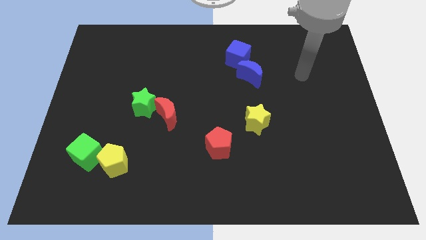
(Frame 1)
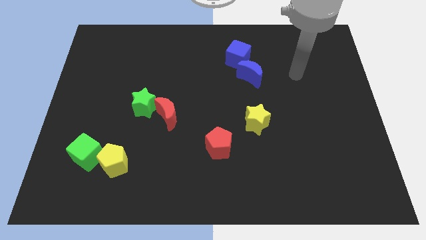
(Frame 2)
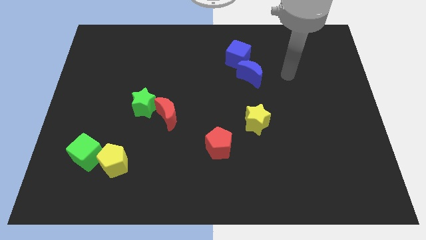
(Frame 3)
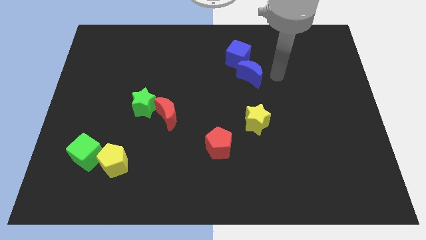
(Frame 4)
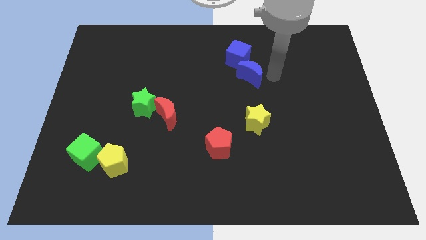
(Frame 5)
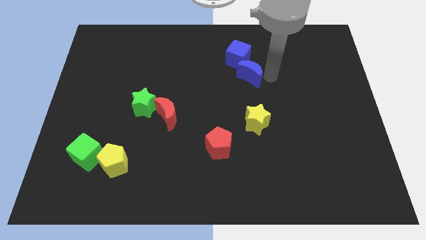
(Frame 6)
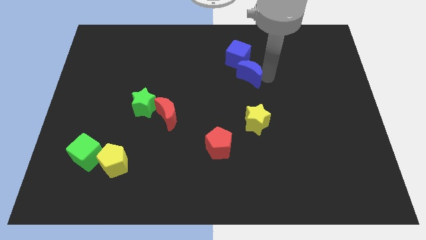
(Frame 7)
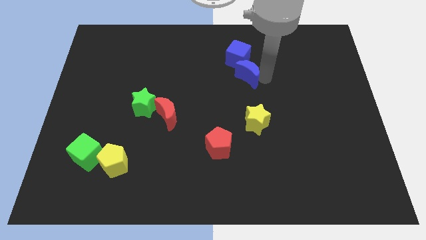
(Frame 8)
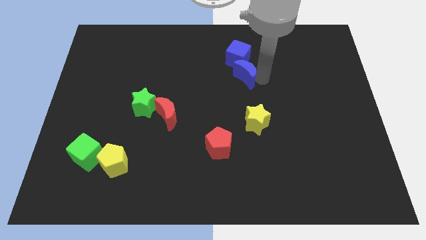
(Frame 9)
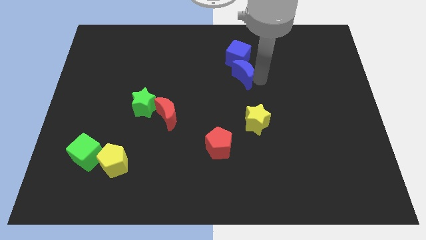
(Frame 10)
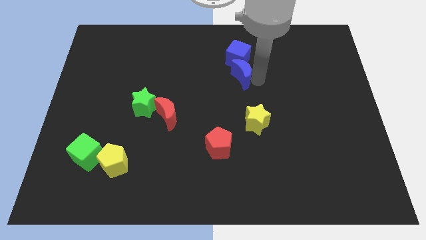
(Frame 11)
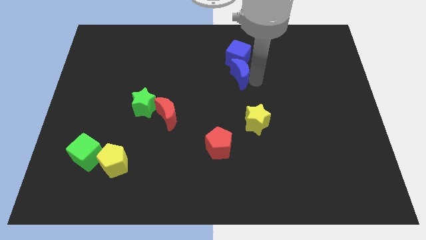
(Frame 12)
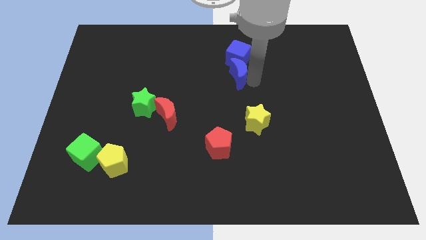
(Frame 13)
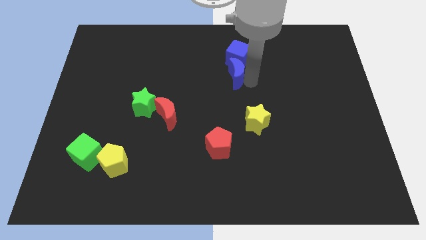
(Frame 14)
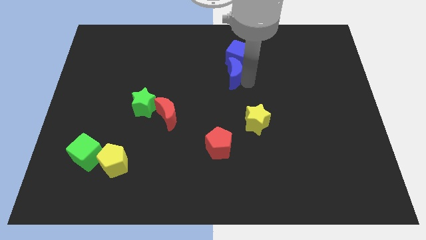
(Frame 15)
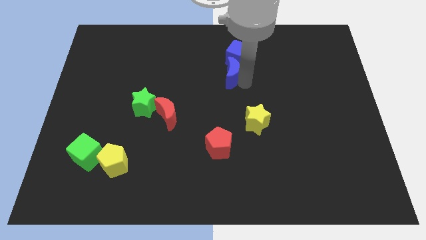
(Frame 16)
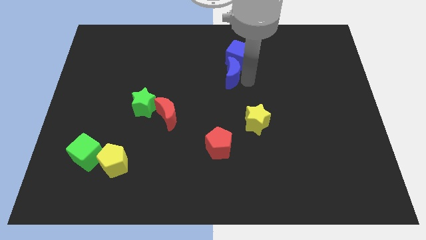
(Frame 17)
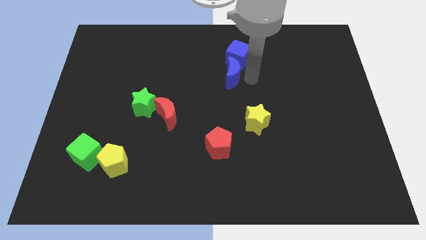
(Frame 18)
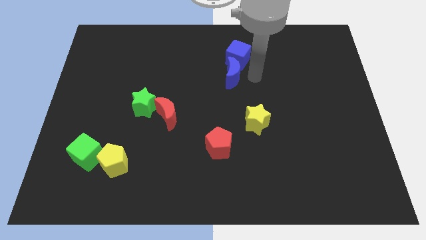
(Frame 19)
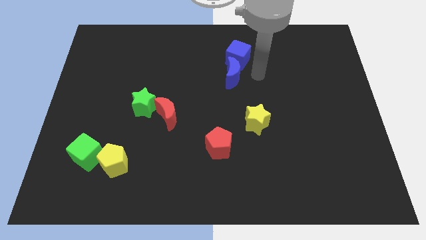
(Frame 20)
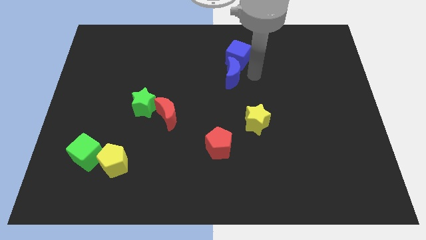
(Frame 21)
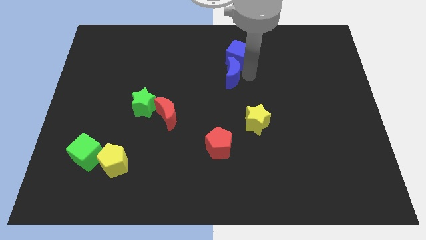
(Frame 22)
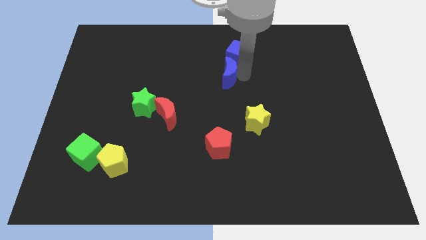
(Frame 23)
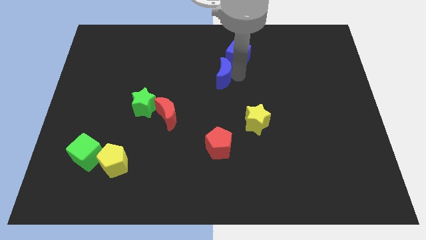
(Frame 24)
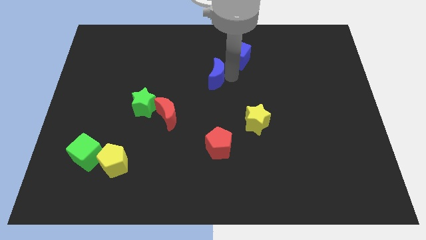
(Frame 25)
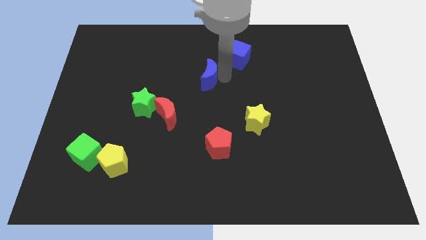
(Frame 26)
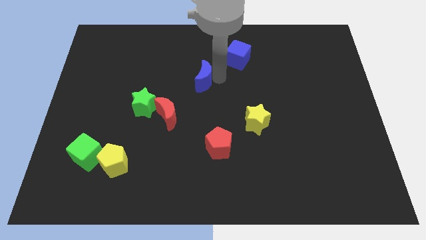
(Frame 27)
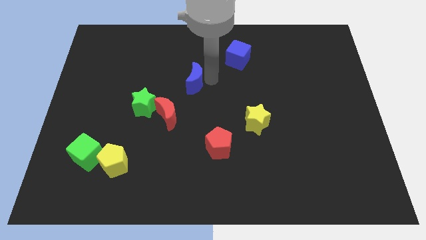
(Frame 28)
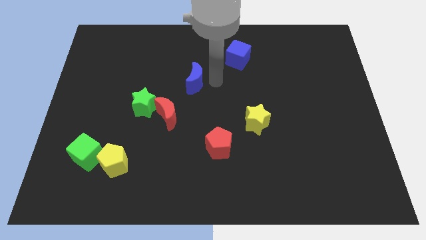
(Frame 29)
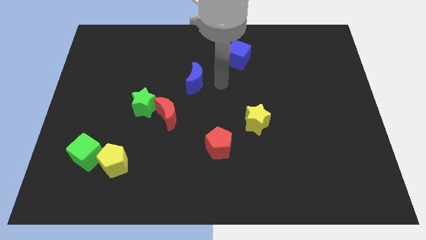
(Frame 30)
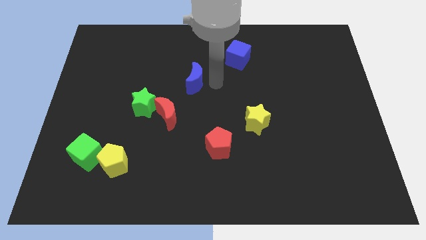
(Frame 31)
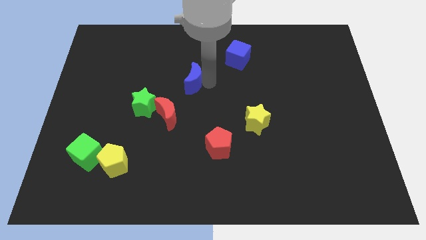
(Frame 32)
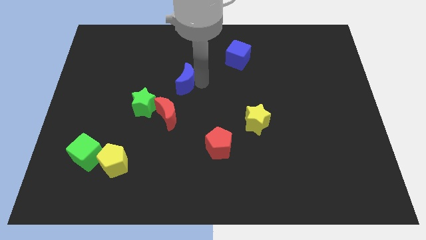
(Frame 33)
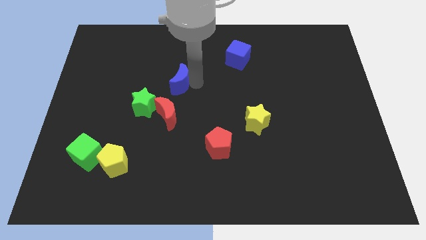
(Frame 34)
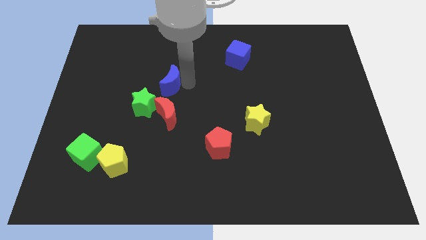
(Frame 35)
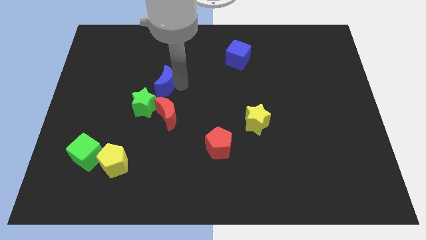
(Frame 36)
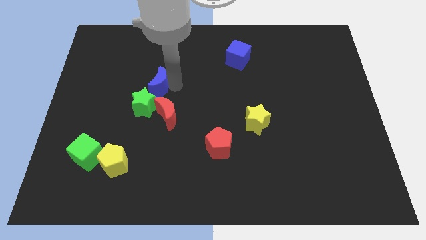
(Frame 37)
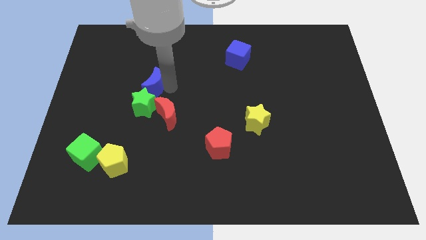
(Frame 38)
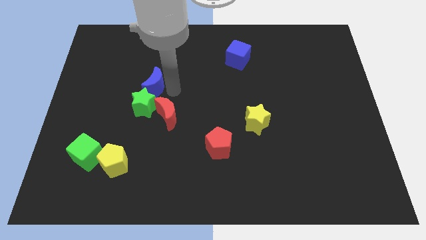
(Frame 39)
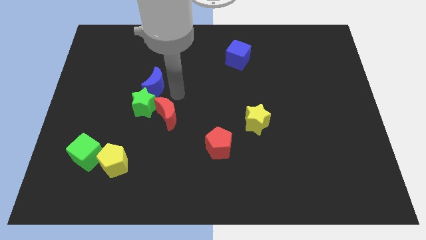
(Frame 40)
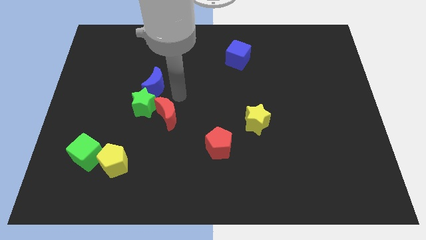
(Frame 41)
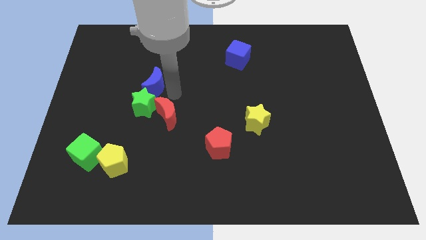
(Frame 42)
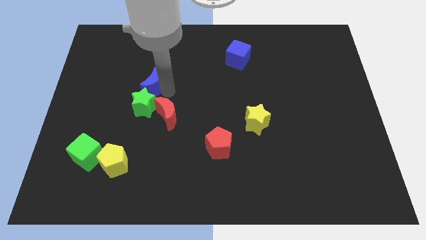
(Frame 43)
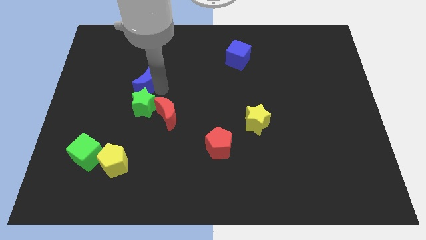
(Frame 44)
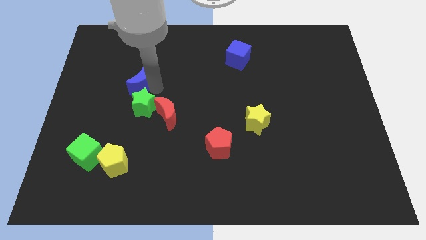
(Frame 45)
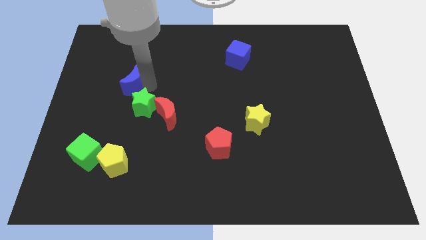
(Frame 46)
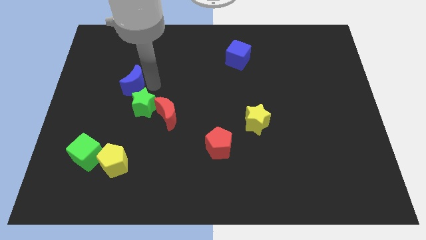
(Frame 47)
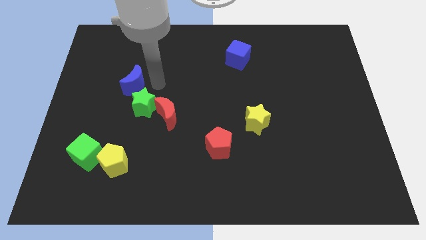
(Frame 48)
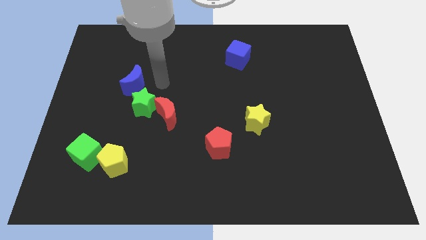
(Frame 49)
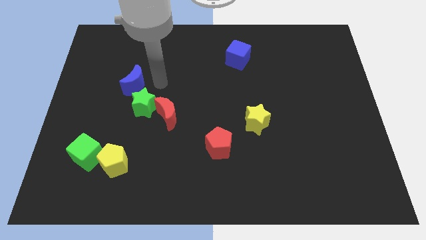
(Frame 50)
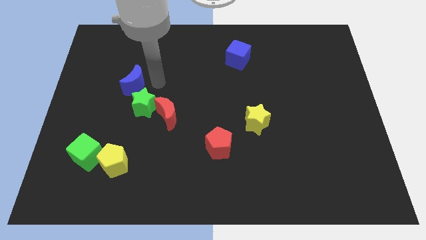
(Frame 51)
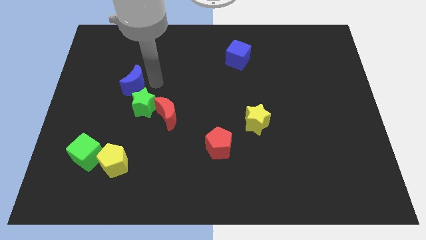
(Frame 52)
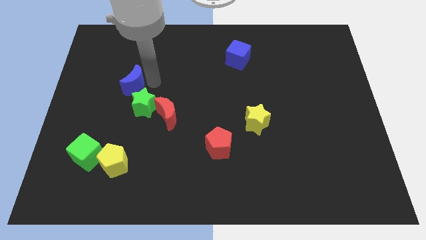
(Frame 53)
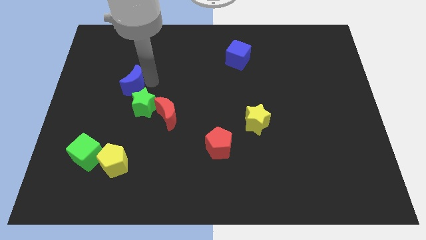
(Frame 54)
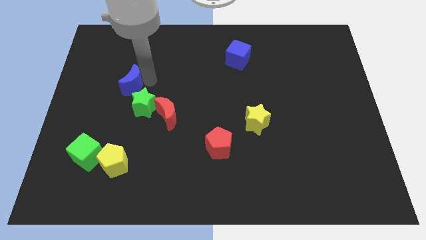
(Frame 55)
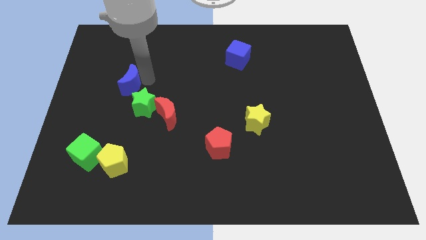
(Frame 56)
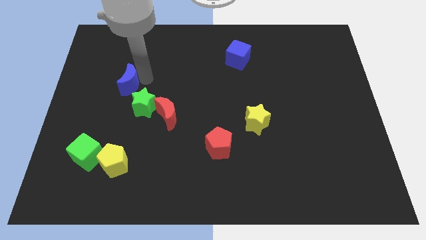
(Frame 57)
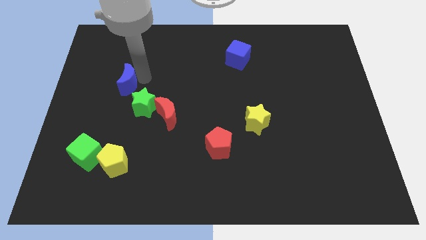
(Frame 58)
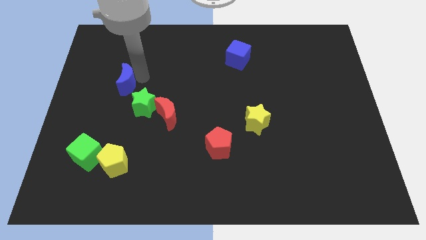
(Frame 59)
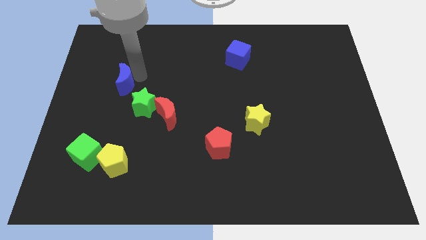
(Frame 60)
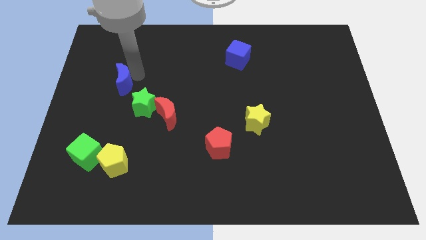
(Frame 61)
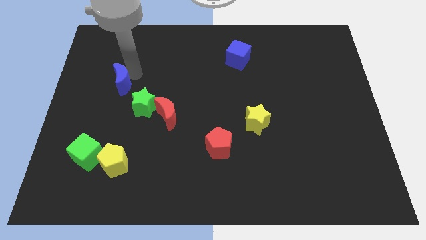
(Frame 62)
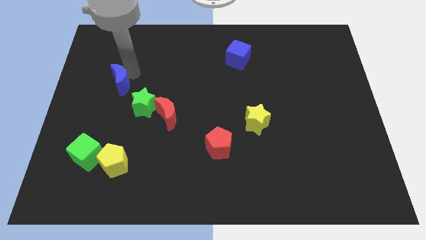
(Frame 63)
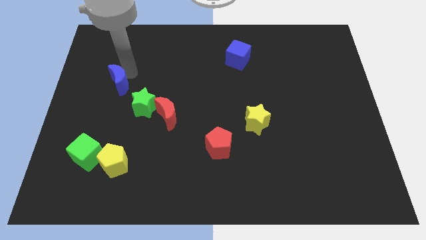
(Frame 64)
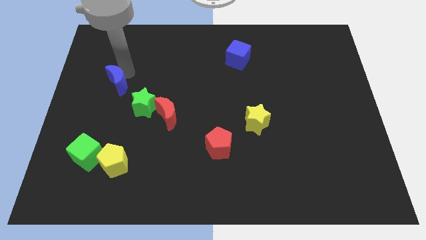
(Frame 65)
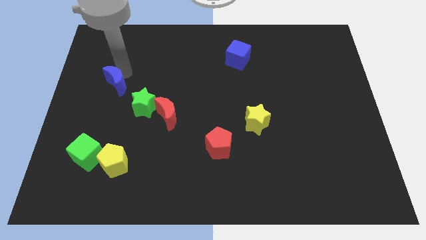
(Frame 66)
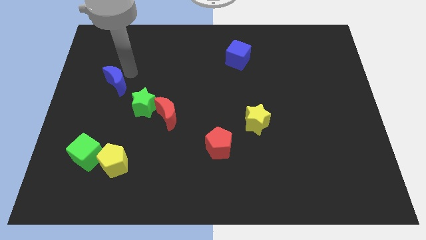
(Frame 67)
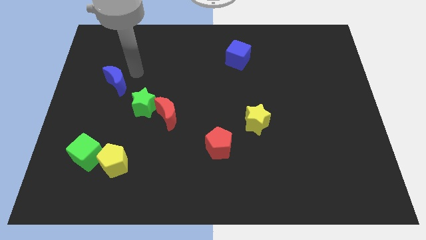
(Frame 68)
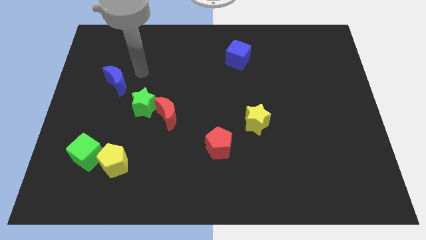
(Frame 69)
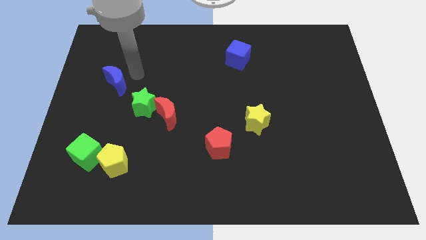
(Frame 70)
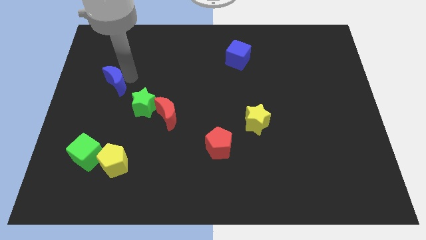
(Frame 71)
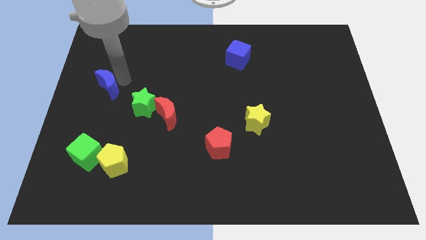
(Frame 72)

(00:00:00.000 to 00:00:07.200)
slide the blue moon to the left side
